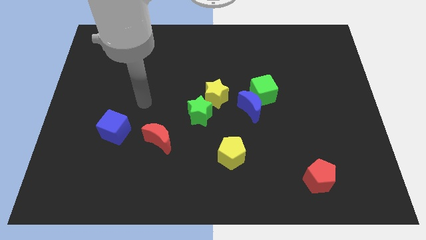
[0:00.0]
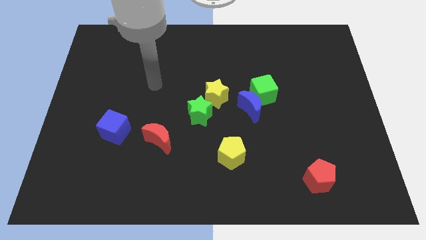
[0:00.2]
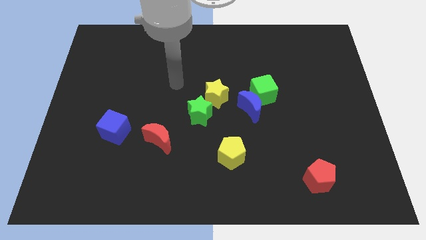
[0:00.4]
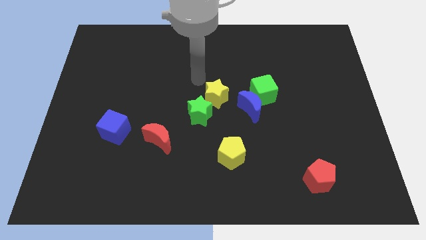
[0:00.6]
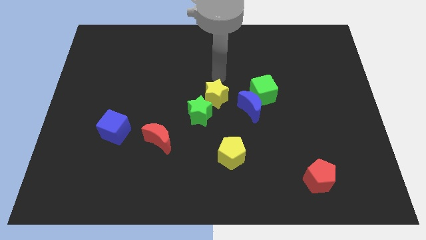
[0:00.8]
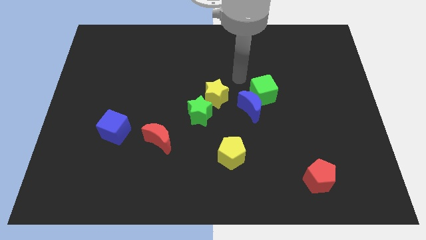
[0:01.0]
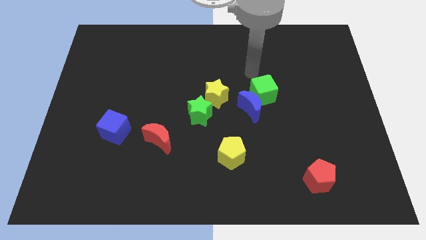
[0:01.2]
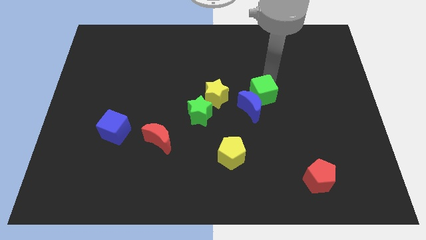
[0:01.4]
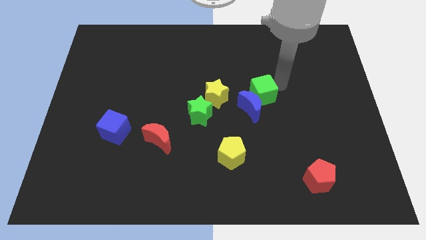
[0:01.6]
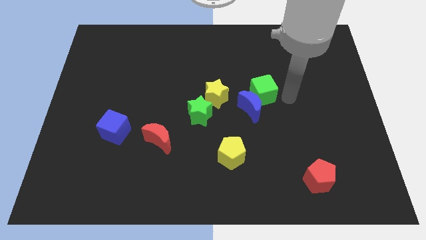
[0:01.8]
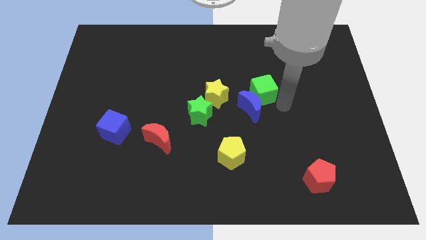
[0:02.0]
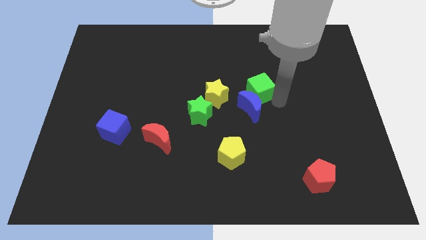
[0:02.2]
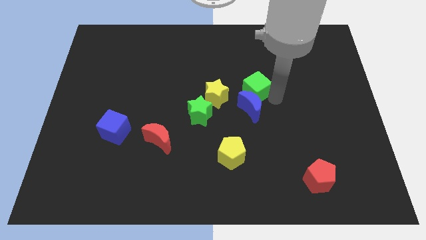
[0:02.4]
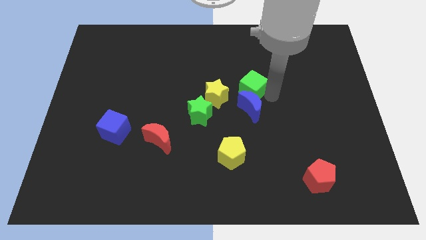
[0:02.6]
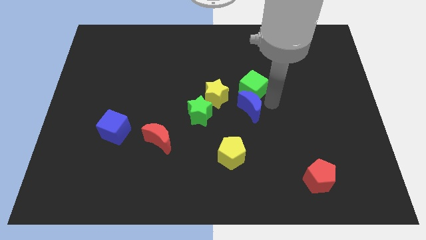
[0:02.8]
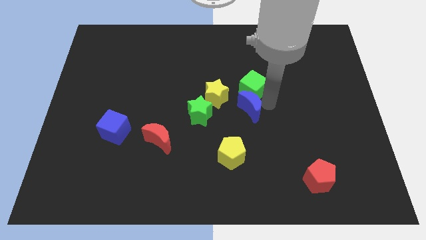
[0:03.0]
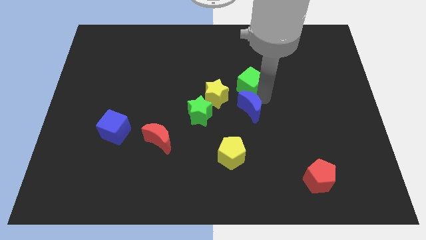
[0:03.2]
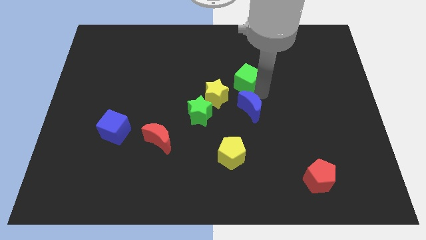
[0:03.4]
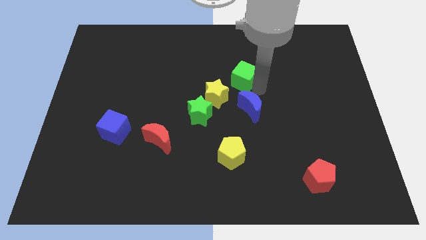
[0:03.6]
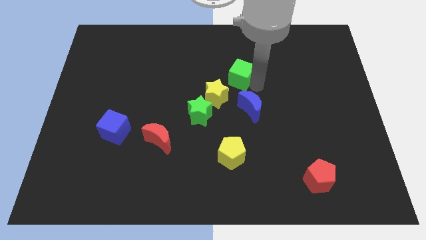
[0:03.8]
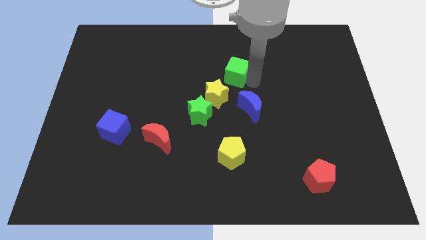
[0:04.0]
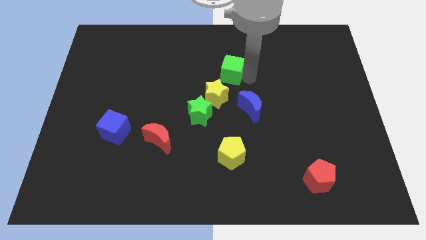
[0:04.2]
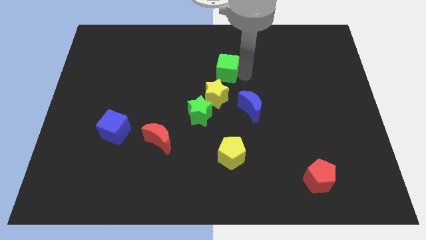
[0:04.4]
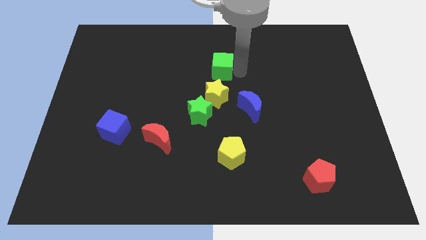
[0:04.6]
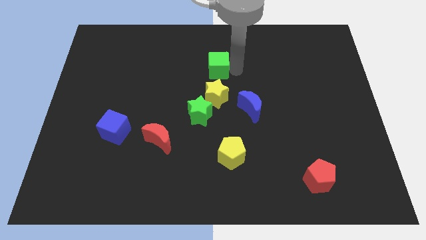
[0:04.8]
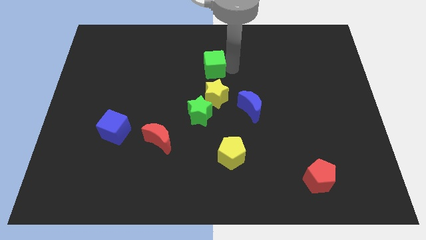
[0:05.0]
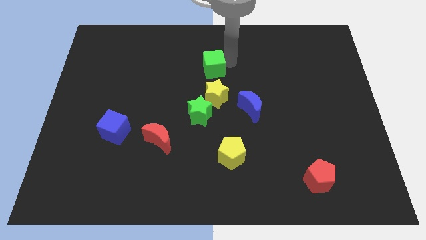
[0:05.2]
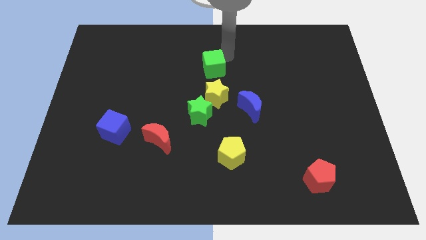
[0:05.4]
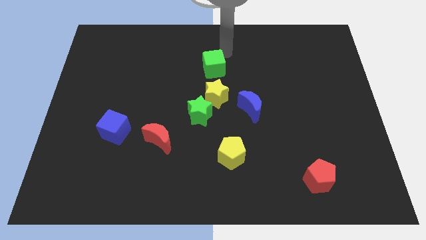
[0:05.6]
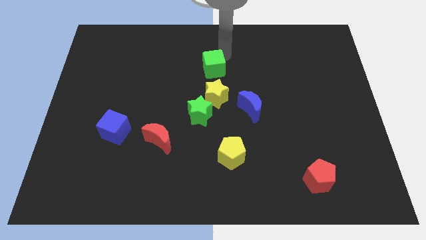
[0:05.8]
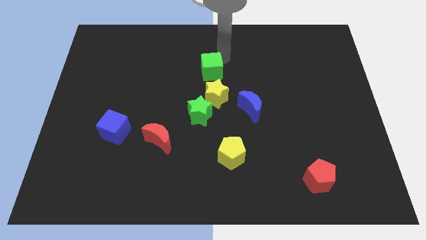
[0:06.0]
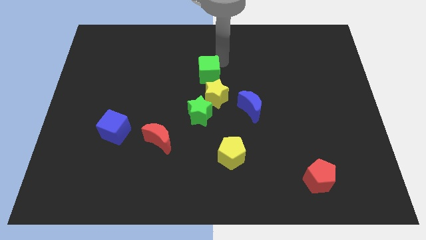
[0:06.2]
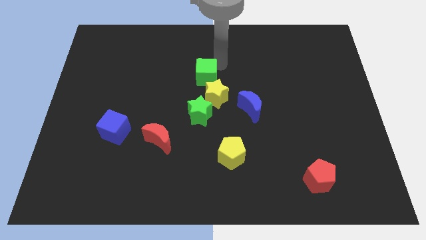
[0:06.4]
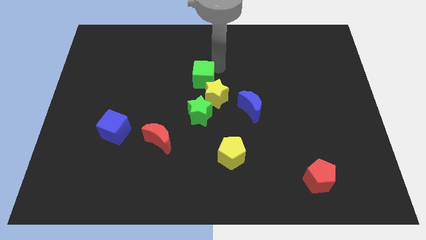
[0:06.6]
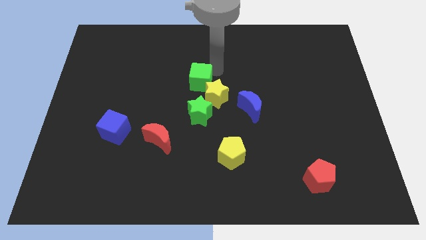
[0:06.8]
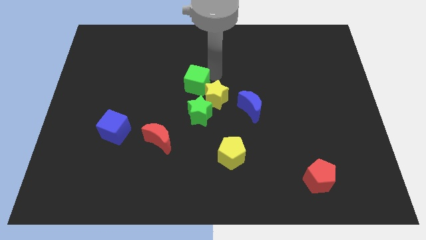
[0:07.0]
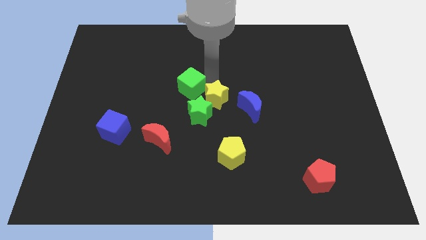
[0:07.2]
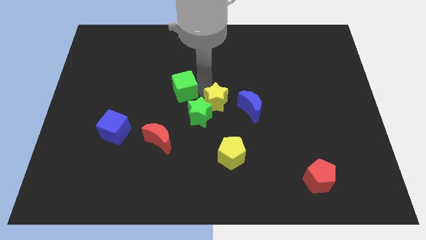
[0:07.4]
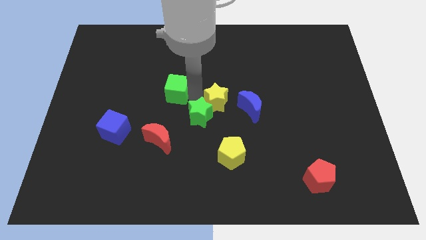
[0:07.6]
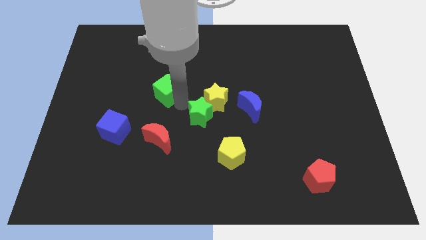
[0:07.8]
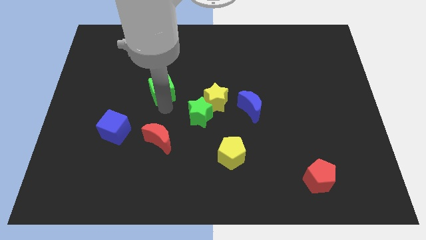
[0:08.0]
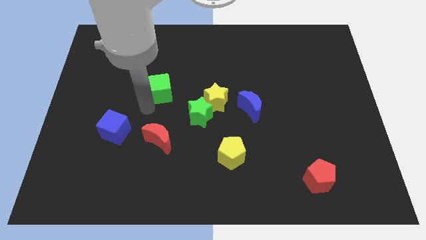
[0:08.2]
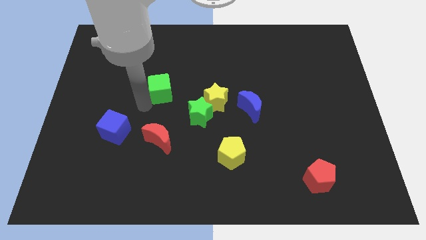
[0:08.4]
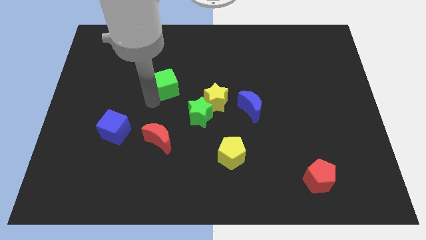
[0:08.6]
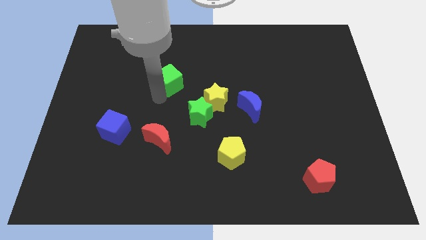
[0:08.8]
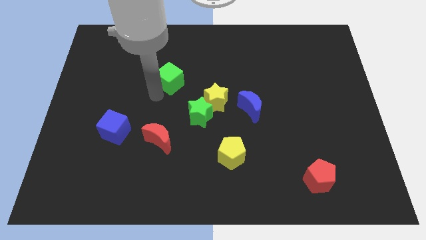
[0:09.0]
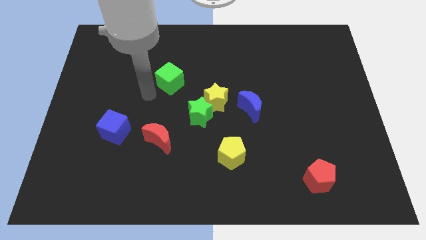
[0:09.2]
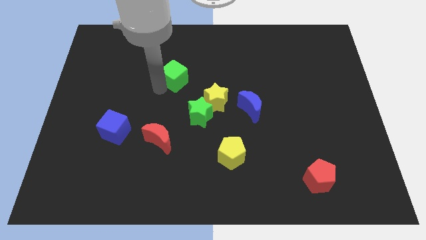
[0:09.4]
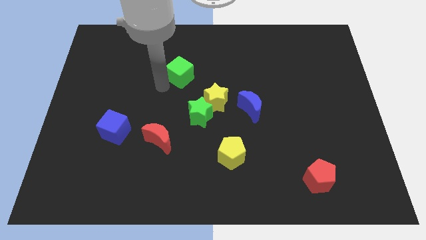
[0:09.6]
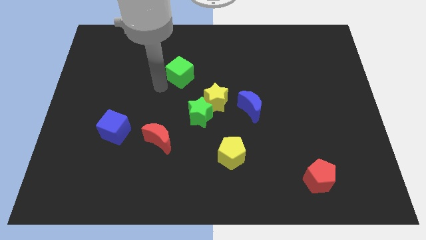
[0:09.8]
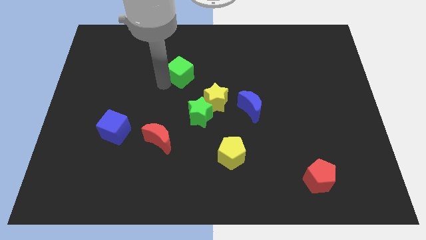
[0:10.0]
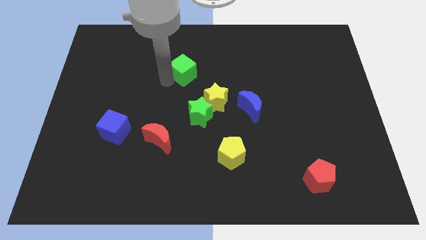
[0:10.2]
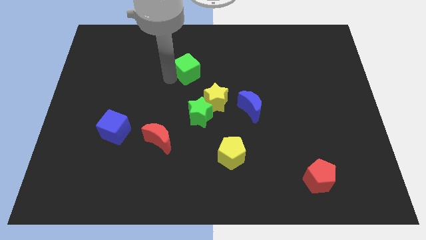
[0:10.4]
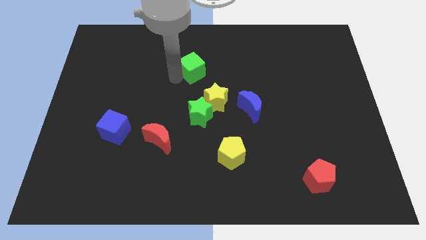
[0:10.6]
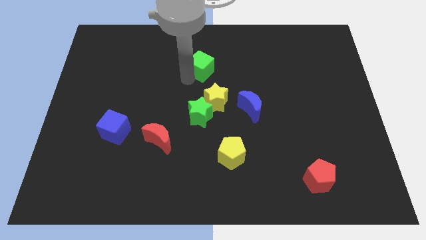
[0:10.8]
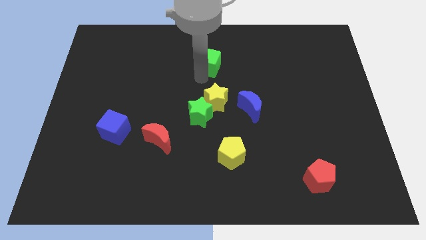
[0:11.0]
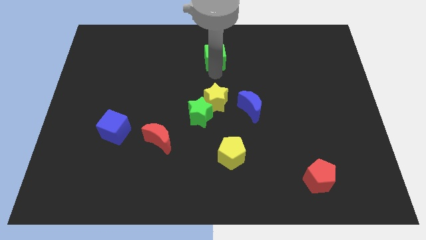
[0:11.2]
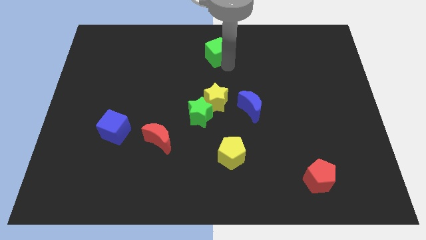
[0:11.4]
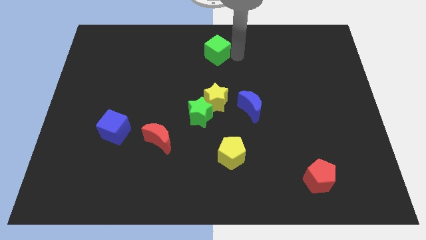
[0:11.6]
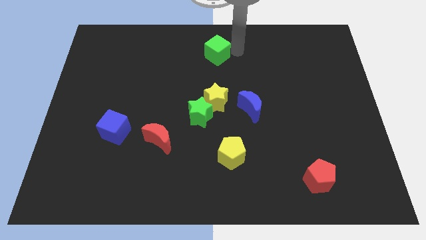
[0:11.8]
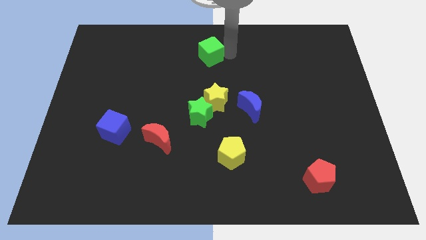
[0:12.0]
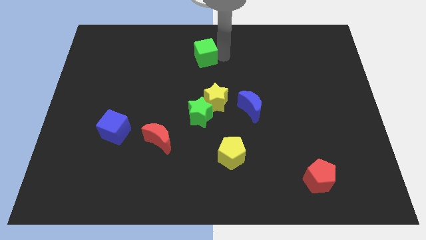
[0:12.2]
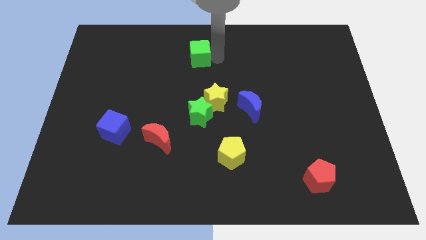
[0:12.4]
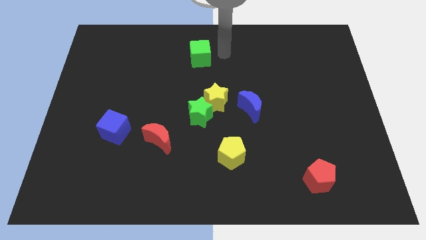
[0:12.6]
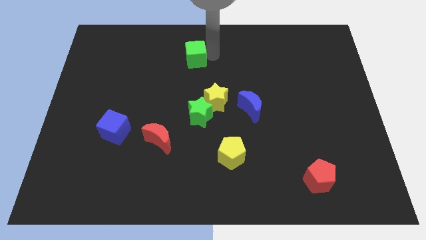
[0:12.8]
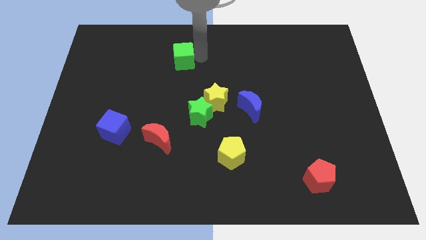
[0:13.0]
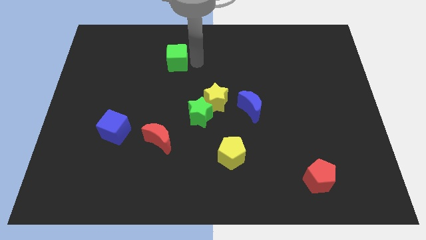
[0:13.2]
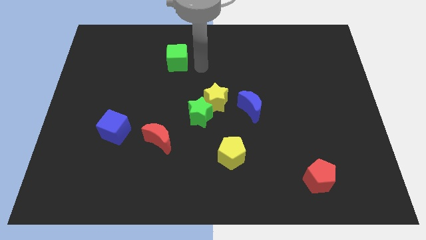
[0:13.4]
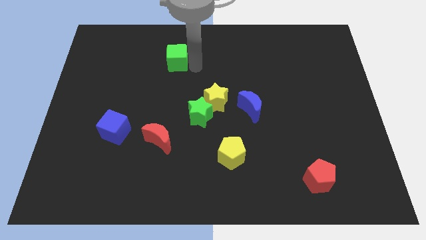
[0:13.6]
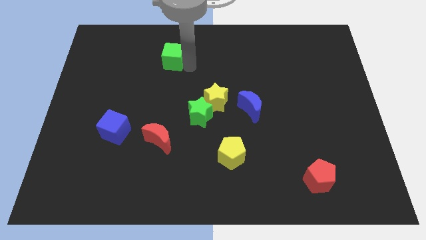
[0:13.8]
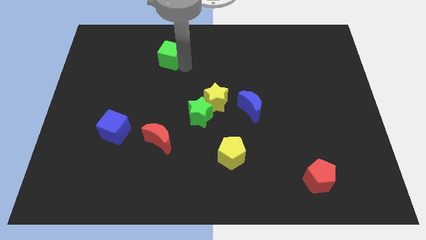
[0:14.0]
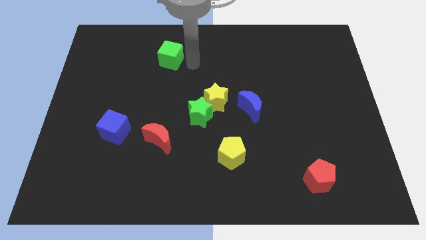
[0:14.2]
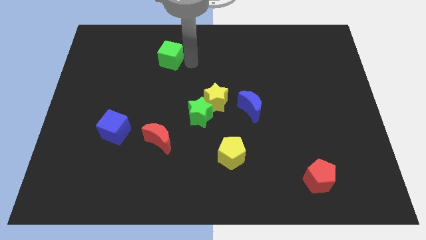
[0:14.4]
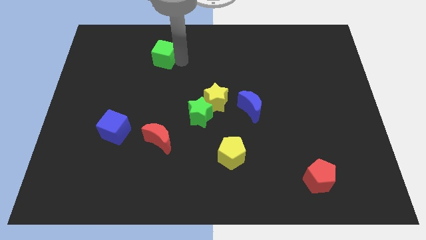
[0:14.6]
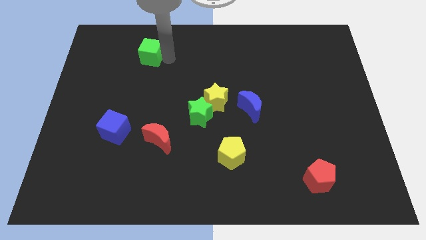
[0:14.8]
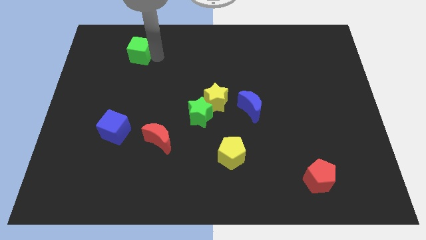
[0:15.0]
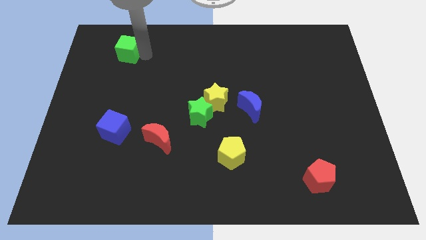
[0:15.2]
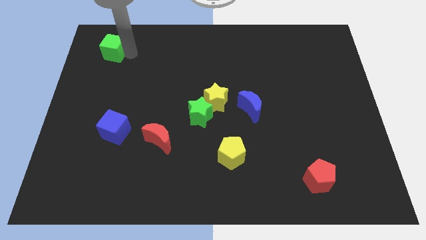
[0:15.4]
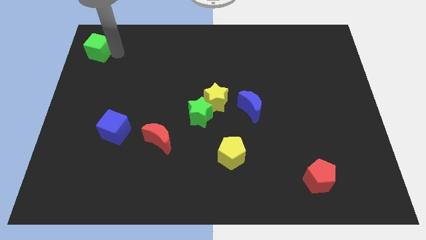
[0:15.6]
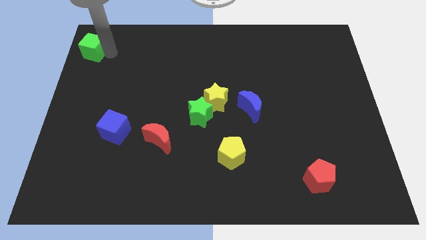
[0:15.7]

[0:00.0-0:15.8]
move the green cube to the top left corner
